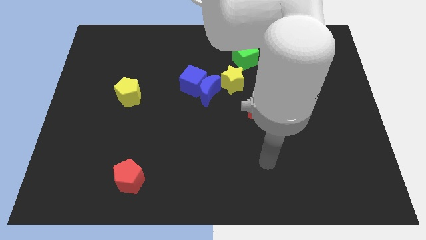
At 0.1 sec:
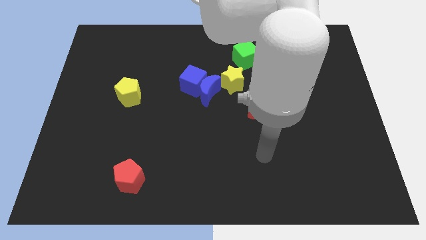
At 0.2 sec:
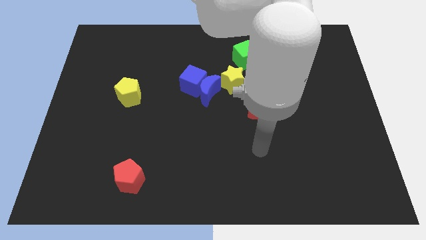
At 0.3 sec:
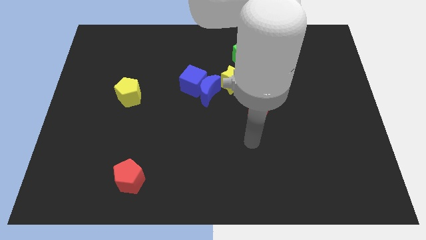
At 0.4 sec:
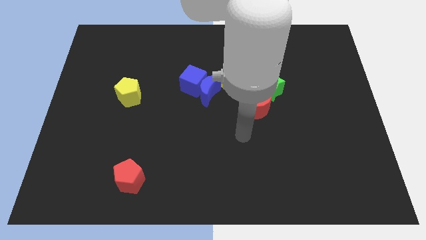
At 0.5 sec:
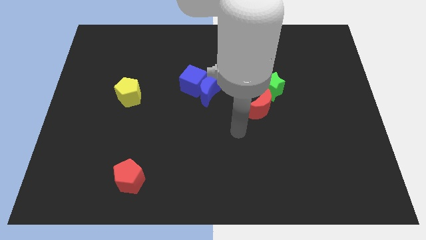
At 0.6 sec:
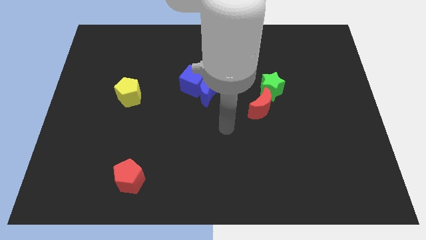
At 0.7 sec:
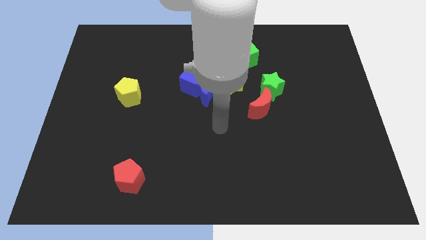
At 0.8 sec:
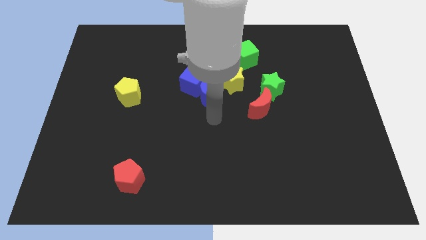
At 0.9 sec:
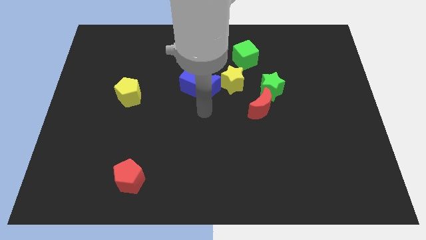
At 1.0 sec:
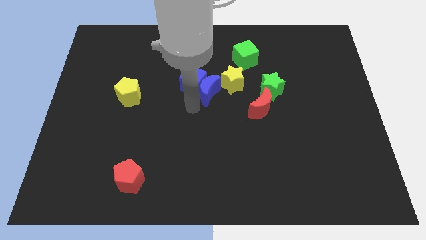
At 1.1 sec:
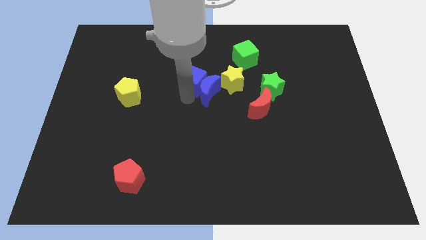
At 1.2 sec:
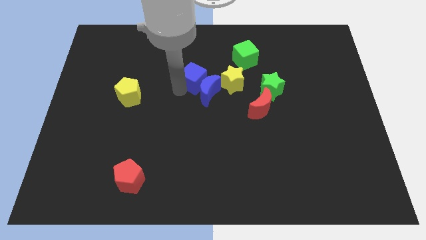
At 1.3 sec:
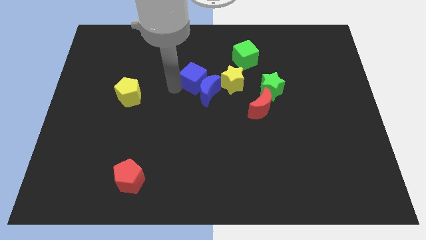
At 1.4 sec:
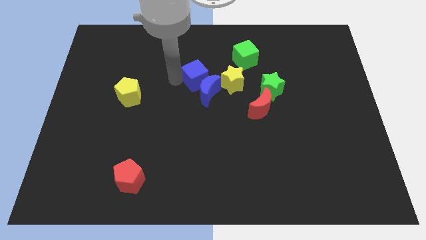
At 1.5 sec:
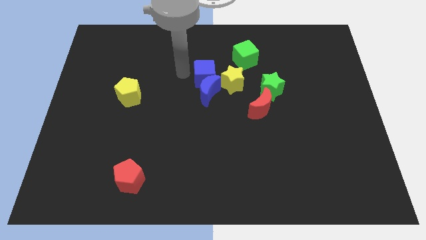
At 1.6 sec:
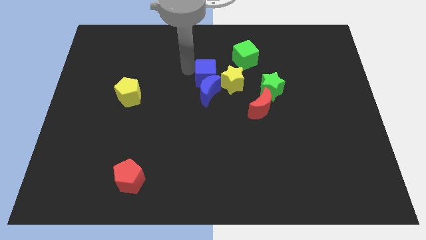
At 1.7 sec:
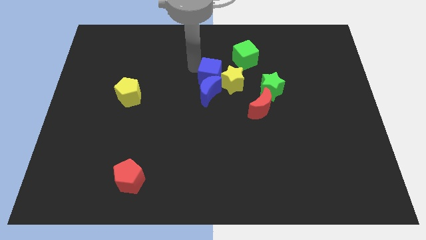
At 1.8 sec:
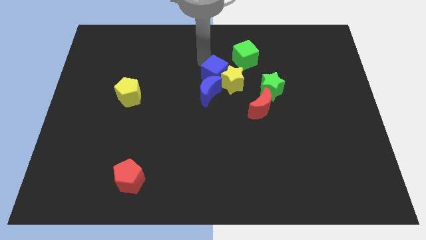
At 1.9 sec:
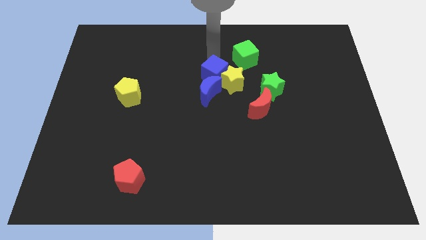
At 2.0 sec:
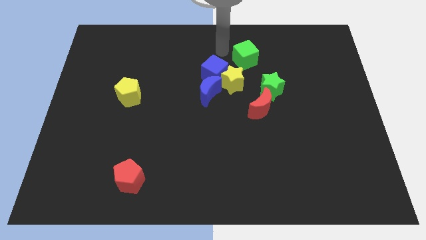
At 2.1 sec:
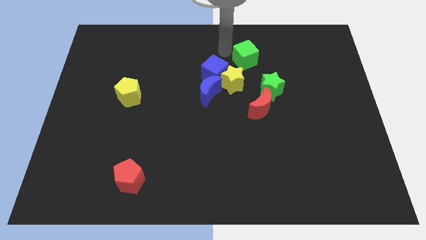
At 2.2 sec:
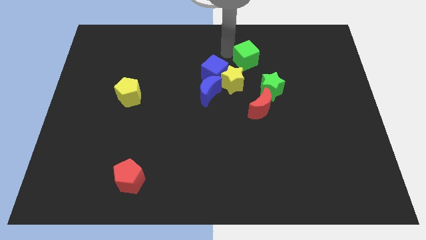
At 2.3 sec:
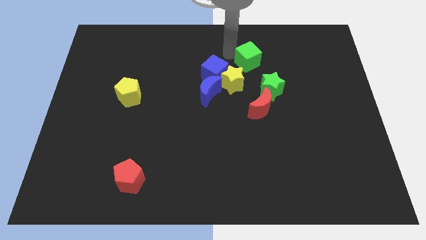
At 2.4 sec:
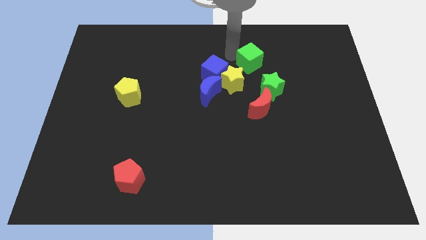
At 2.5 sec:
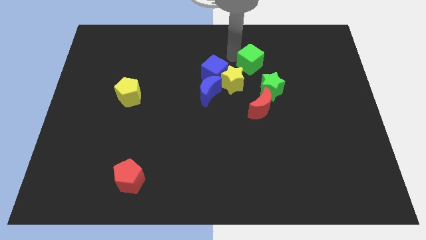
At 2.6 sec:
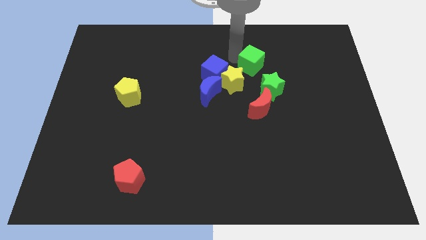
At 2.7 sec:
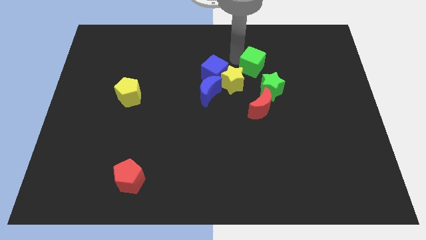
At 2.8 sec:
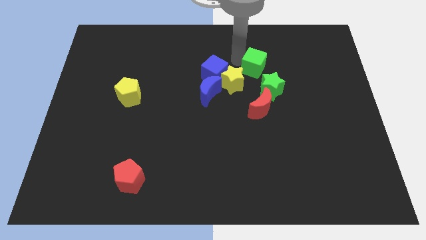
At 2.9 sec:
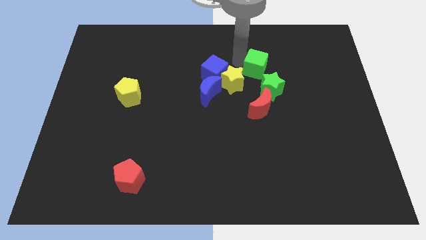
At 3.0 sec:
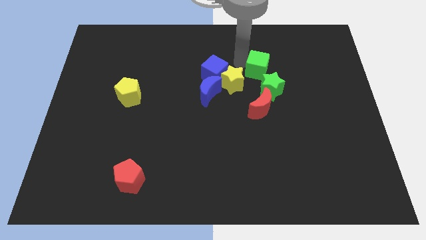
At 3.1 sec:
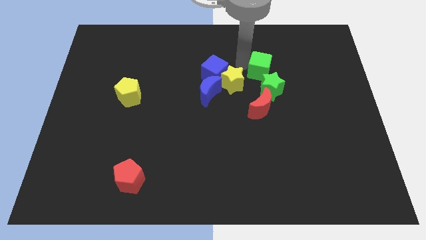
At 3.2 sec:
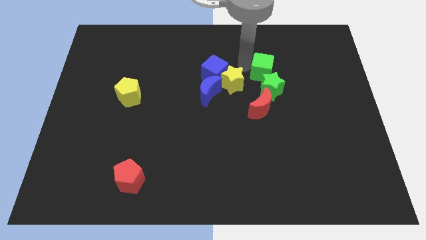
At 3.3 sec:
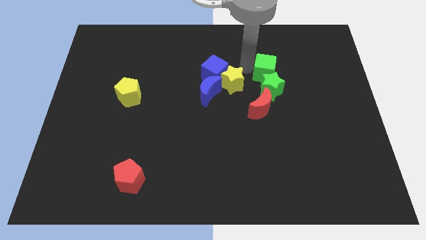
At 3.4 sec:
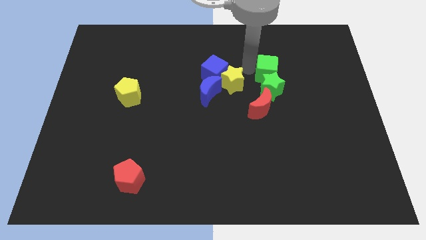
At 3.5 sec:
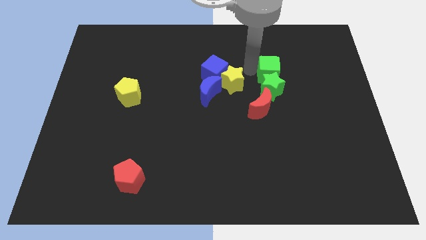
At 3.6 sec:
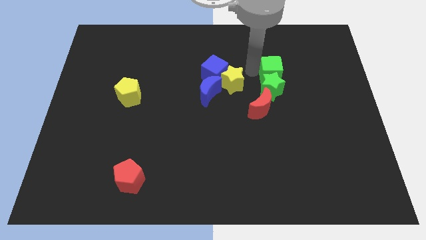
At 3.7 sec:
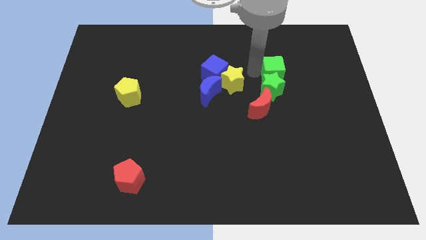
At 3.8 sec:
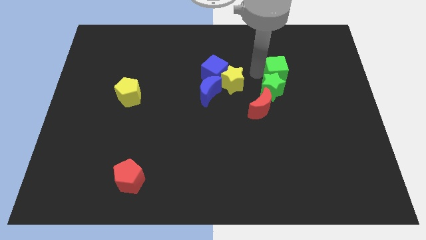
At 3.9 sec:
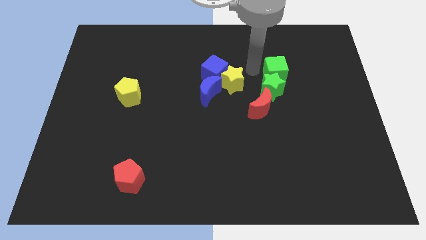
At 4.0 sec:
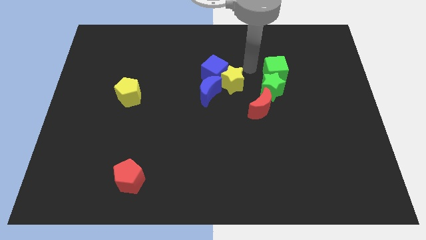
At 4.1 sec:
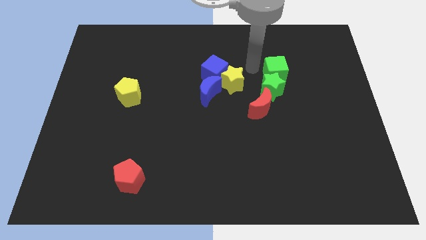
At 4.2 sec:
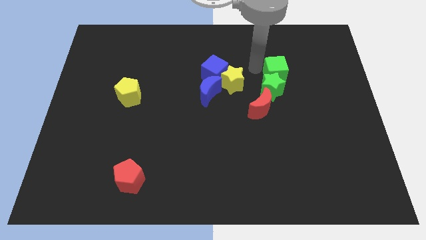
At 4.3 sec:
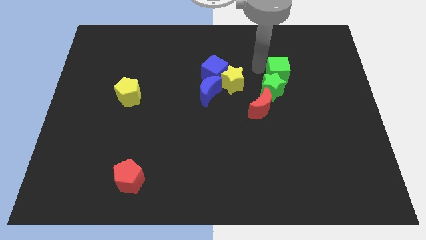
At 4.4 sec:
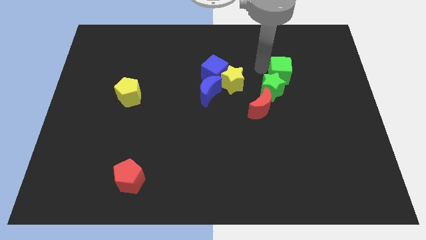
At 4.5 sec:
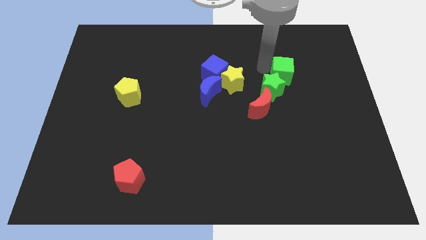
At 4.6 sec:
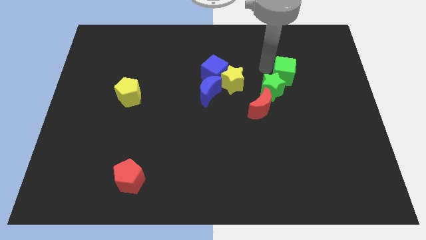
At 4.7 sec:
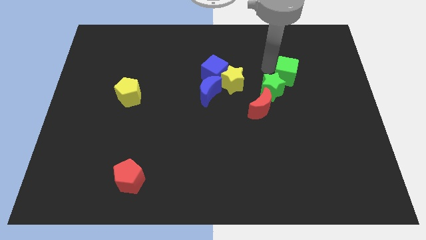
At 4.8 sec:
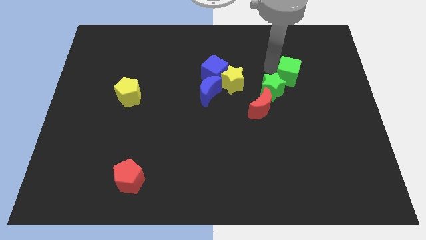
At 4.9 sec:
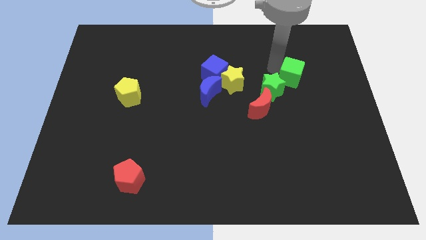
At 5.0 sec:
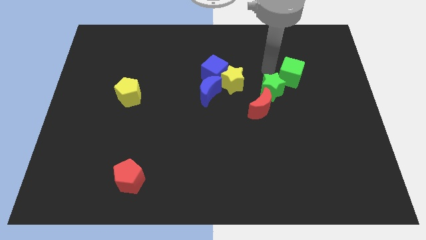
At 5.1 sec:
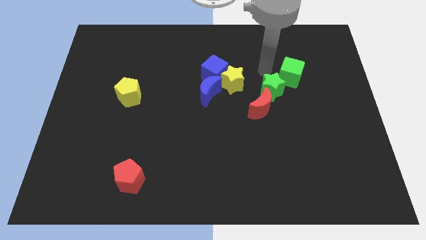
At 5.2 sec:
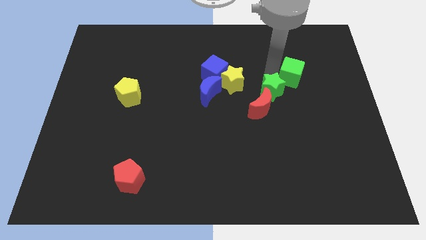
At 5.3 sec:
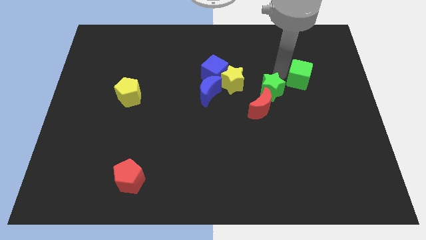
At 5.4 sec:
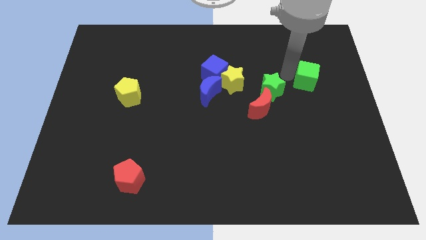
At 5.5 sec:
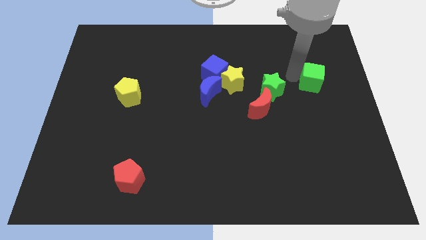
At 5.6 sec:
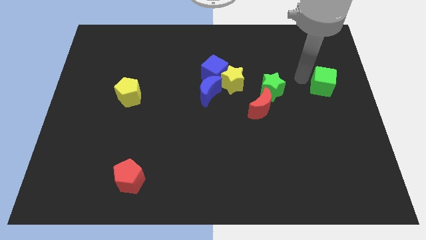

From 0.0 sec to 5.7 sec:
move the green cube to the right side

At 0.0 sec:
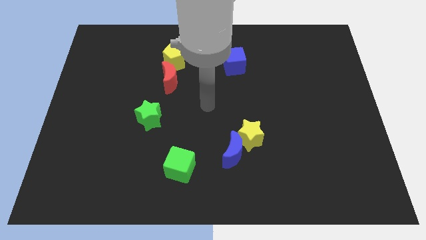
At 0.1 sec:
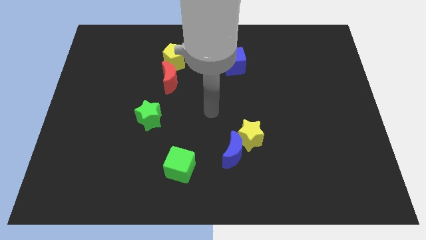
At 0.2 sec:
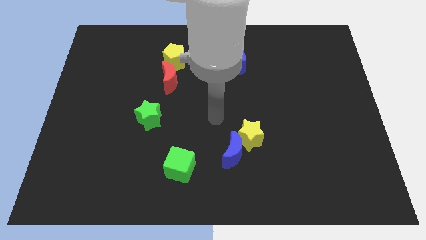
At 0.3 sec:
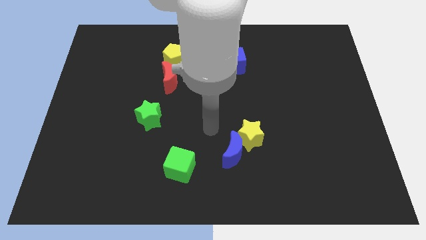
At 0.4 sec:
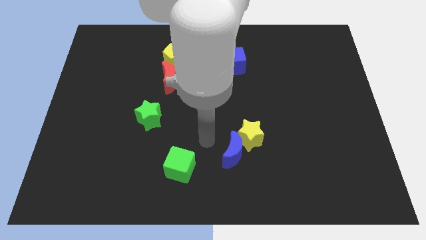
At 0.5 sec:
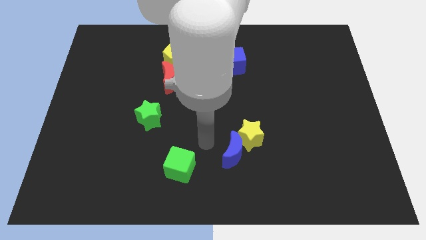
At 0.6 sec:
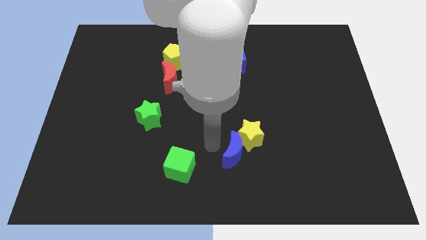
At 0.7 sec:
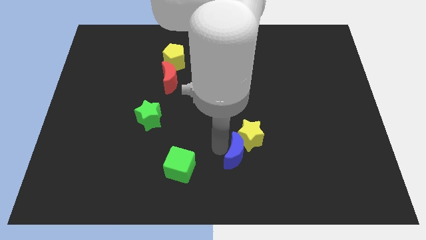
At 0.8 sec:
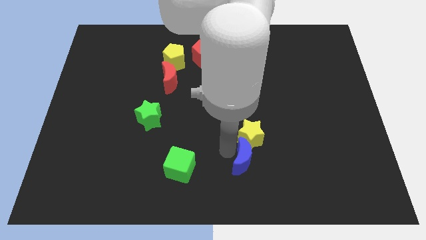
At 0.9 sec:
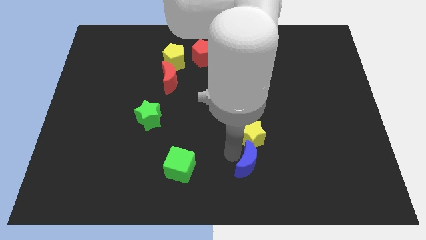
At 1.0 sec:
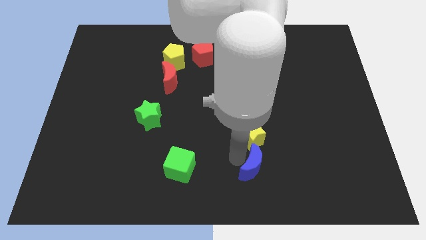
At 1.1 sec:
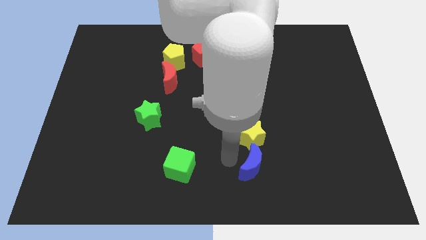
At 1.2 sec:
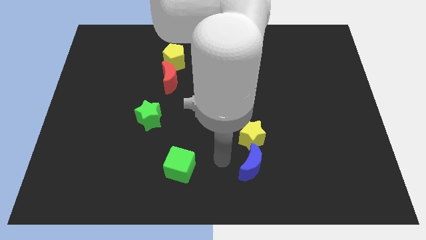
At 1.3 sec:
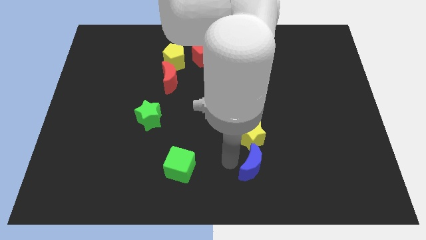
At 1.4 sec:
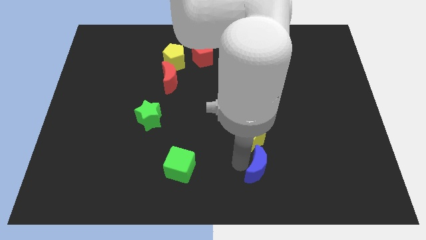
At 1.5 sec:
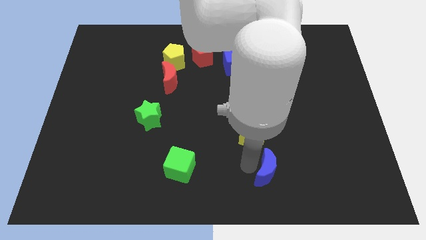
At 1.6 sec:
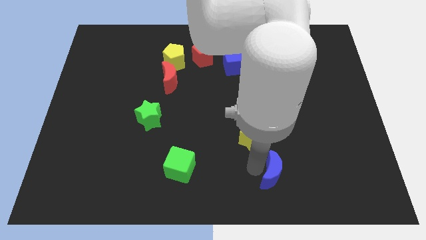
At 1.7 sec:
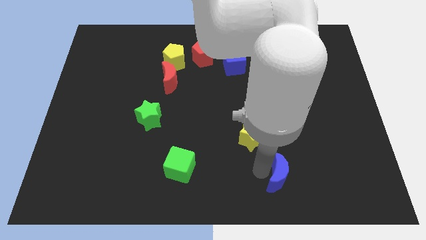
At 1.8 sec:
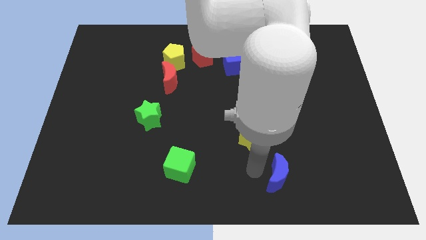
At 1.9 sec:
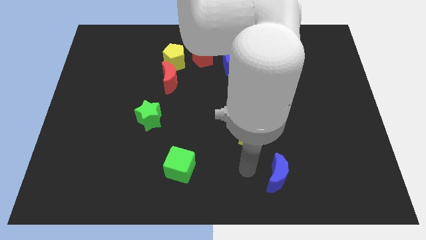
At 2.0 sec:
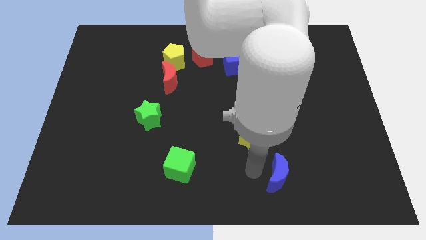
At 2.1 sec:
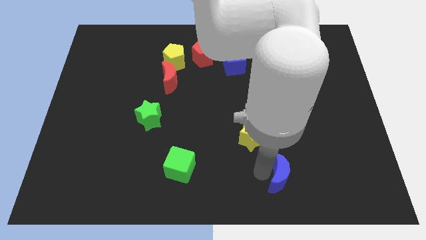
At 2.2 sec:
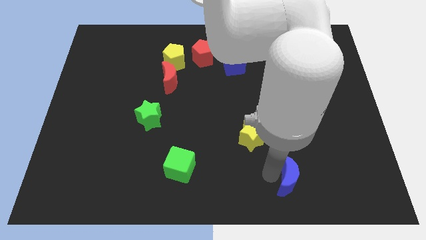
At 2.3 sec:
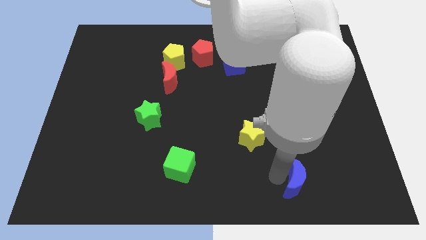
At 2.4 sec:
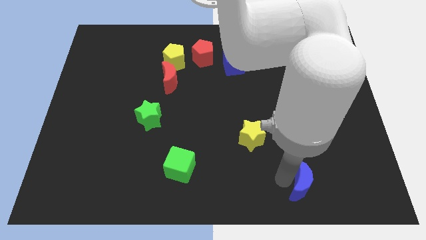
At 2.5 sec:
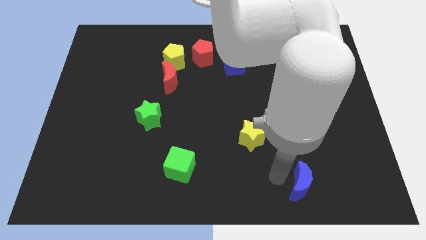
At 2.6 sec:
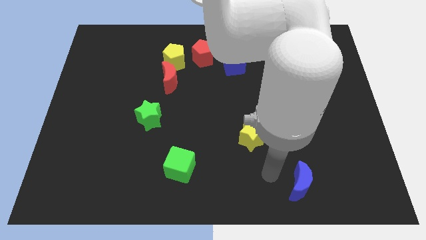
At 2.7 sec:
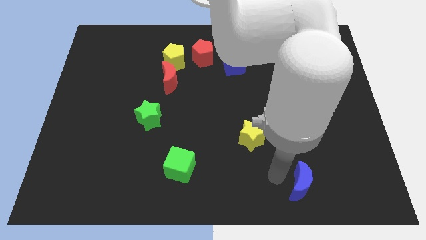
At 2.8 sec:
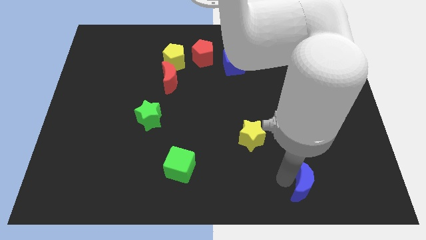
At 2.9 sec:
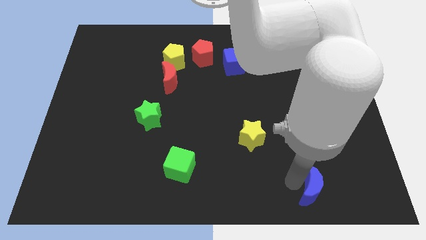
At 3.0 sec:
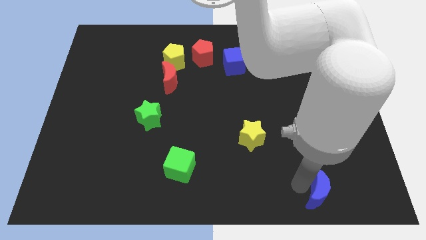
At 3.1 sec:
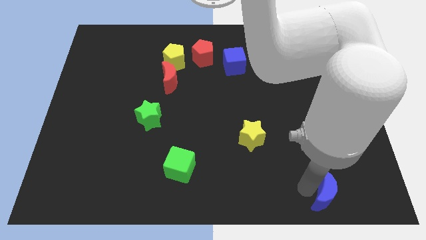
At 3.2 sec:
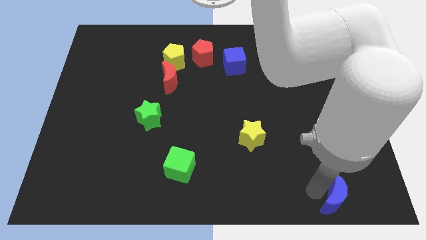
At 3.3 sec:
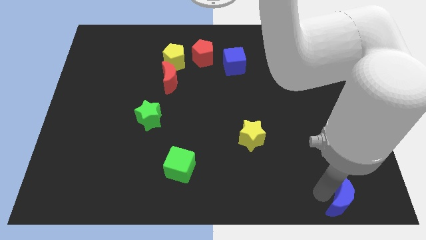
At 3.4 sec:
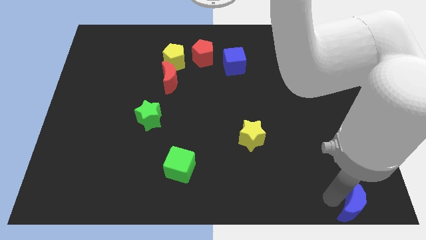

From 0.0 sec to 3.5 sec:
push the blue moon to the bottom right of the board
